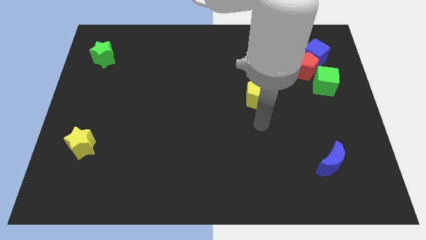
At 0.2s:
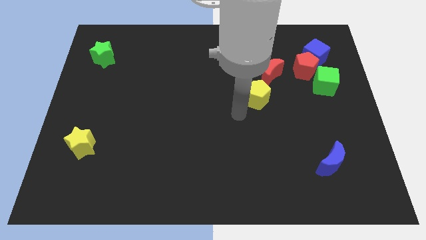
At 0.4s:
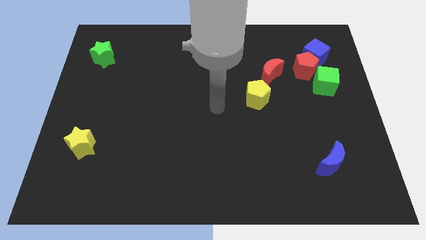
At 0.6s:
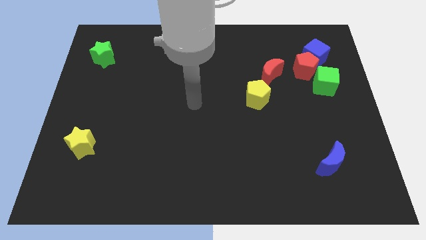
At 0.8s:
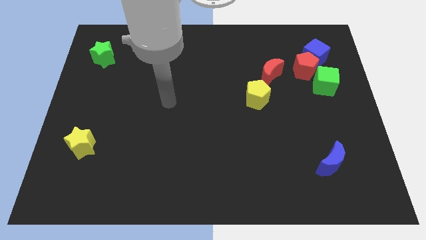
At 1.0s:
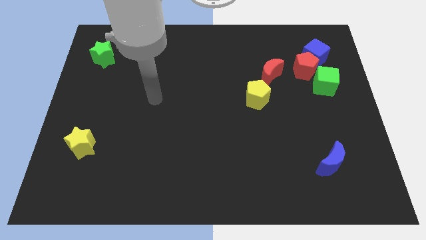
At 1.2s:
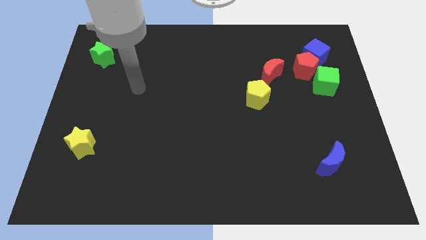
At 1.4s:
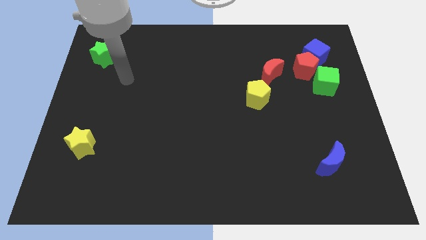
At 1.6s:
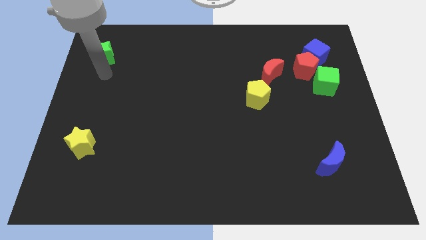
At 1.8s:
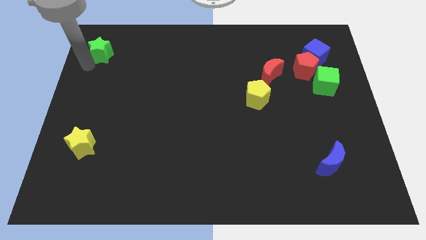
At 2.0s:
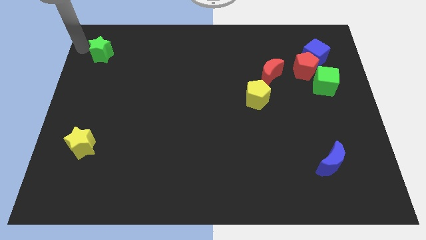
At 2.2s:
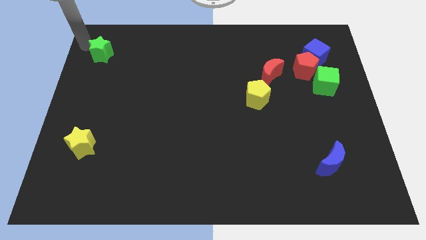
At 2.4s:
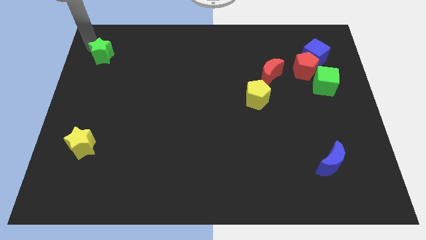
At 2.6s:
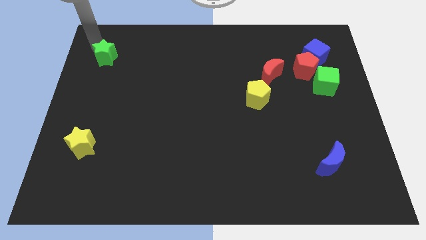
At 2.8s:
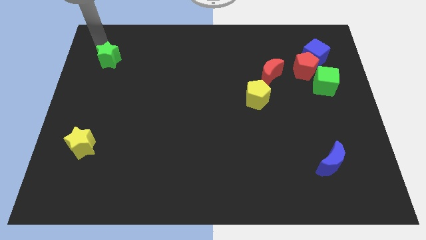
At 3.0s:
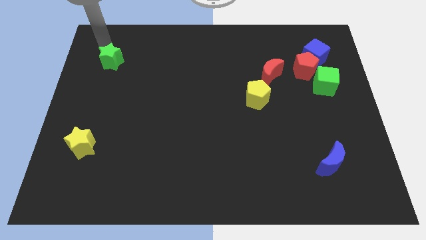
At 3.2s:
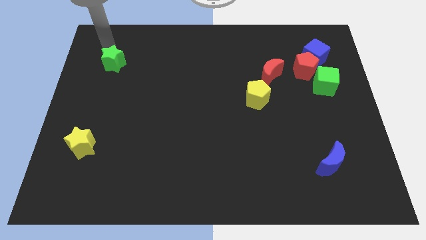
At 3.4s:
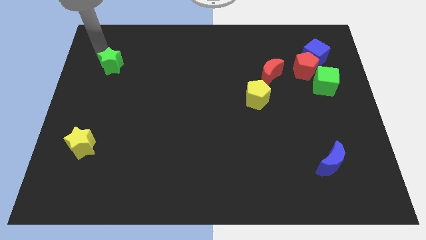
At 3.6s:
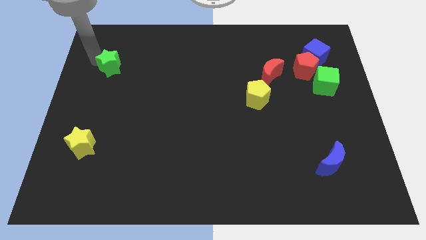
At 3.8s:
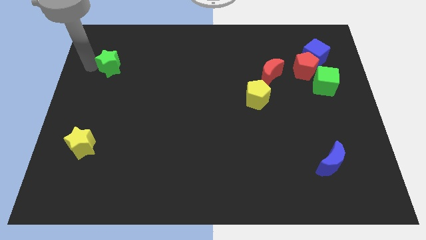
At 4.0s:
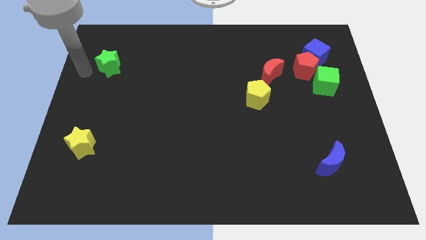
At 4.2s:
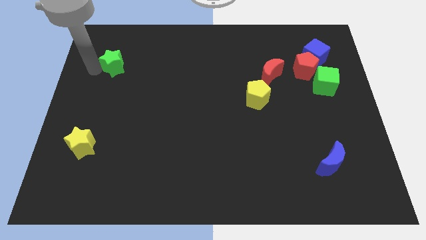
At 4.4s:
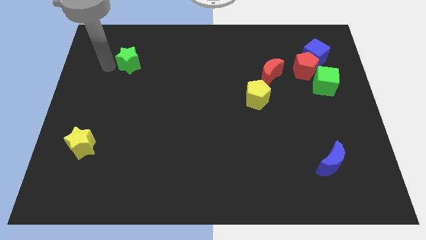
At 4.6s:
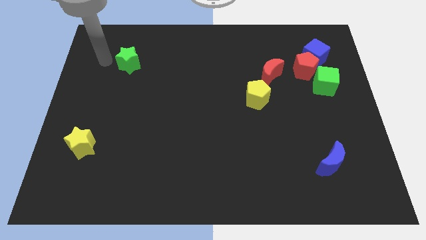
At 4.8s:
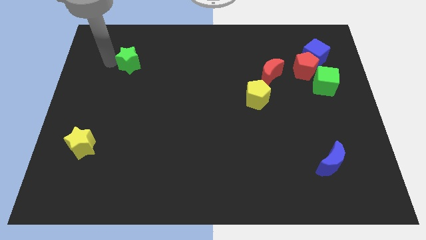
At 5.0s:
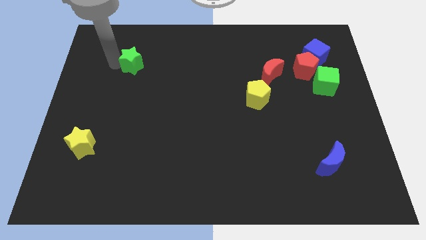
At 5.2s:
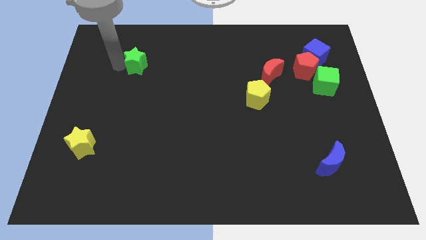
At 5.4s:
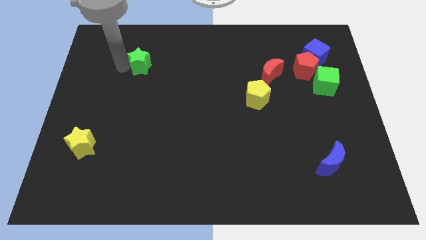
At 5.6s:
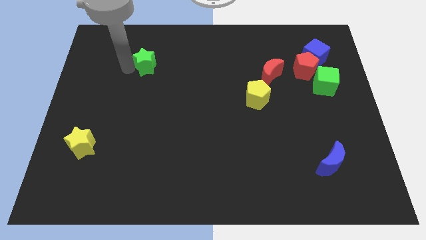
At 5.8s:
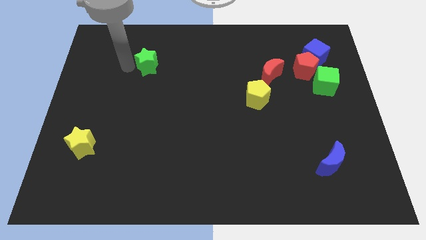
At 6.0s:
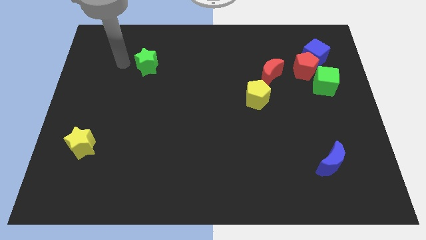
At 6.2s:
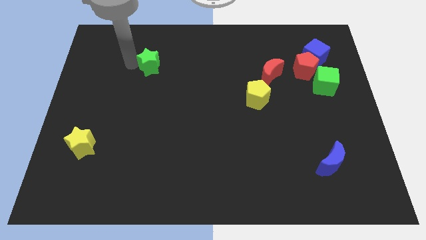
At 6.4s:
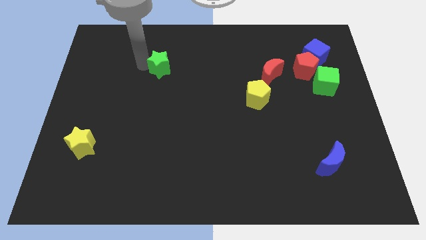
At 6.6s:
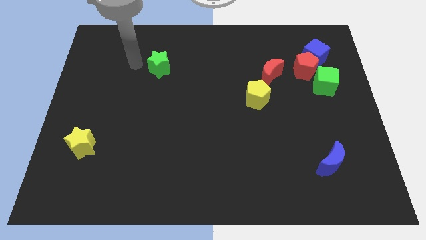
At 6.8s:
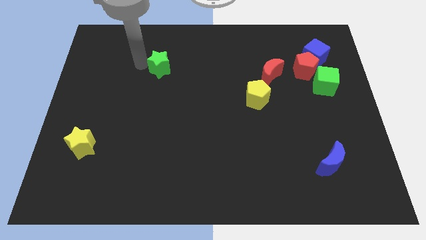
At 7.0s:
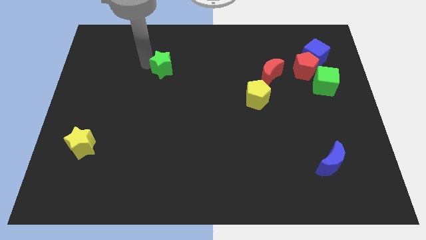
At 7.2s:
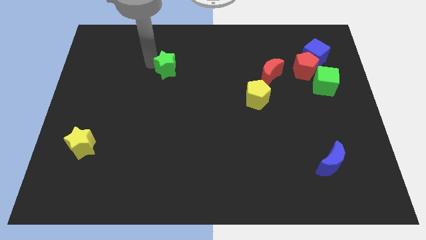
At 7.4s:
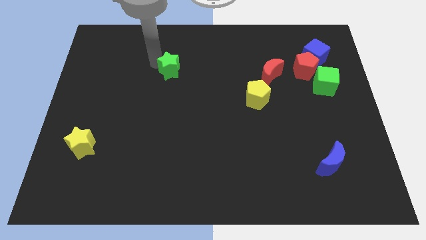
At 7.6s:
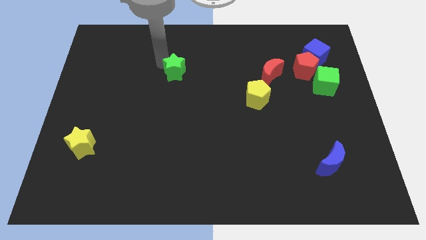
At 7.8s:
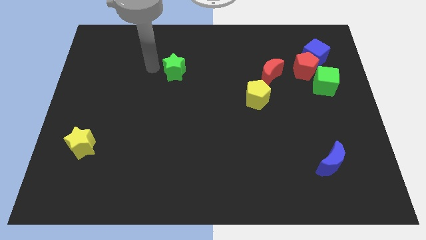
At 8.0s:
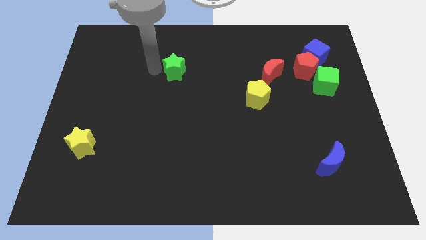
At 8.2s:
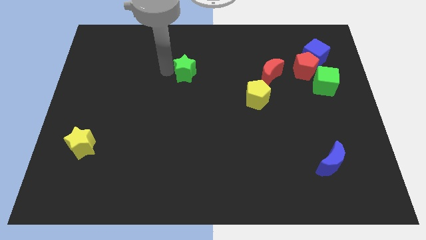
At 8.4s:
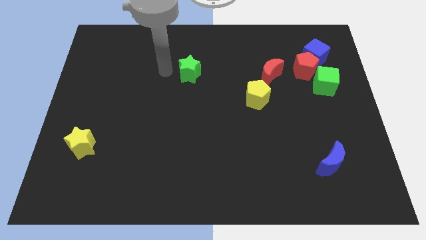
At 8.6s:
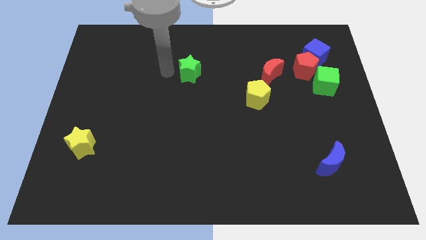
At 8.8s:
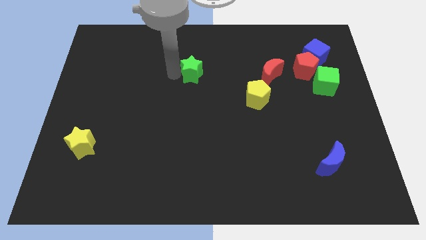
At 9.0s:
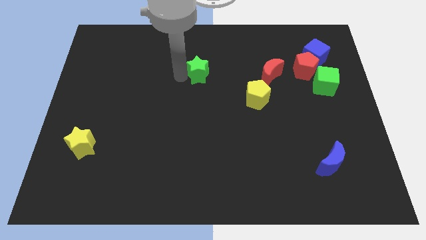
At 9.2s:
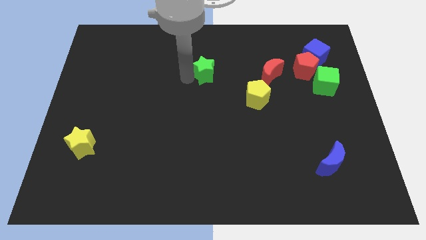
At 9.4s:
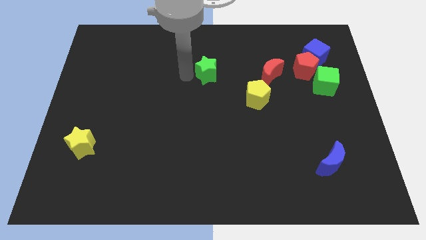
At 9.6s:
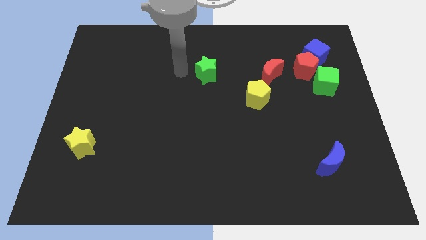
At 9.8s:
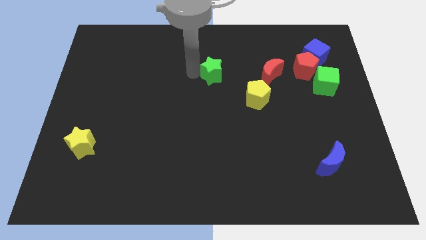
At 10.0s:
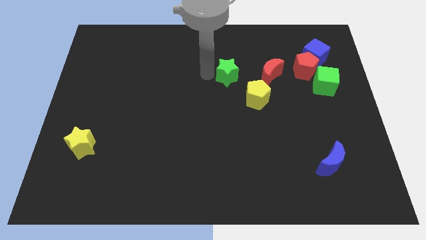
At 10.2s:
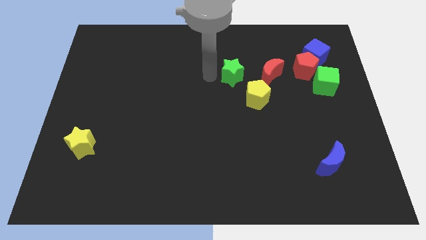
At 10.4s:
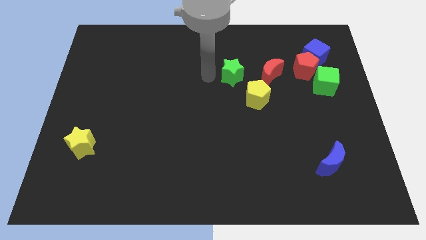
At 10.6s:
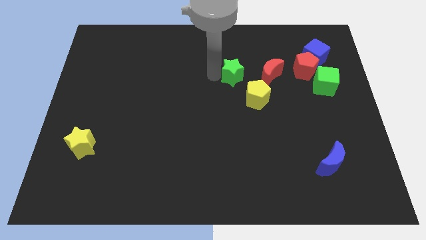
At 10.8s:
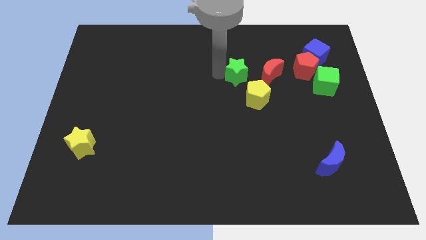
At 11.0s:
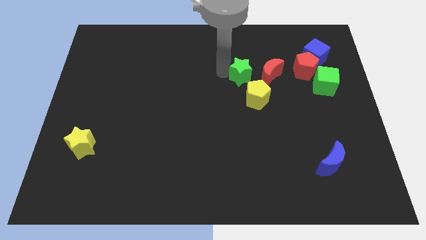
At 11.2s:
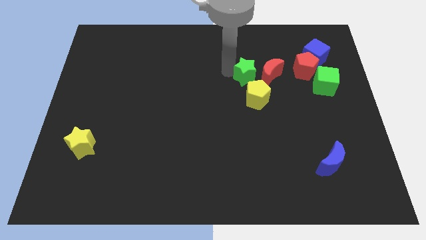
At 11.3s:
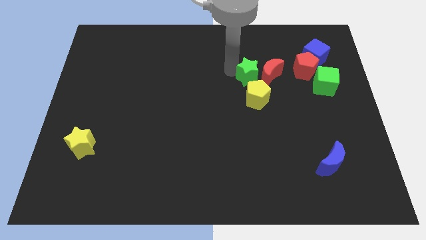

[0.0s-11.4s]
push the green star close to the red moon

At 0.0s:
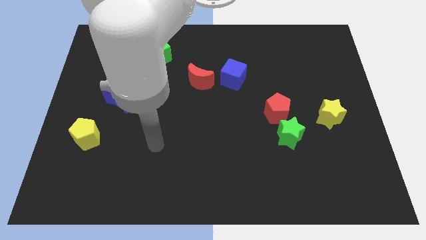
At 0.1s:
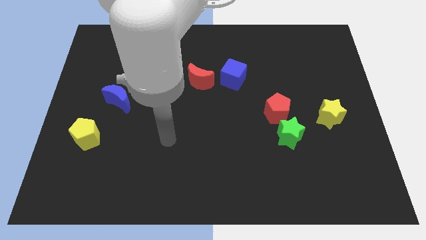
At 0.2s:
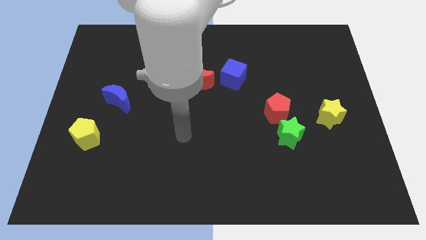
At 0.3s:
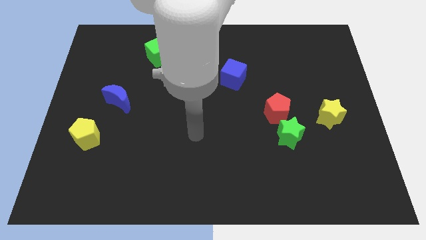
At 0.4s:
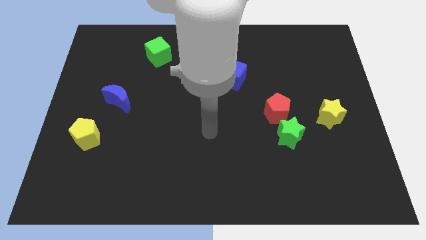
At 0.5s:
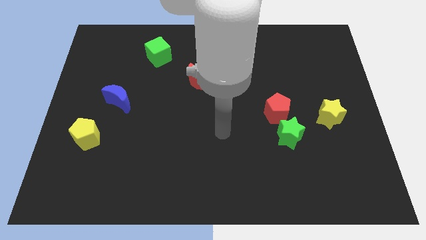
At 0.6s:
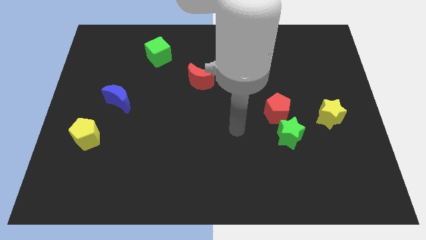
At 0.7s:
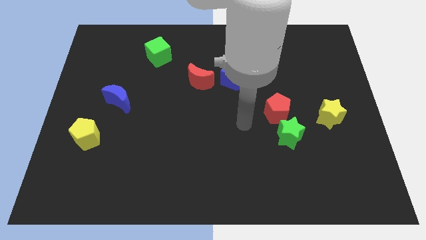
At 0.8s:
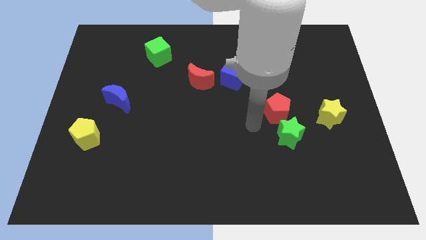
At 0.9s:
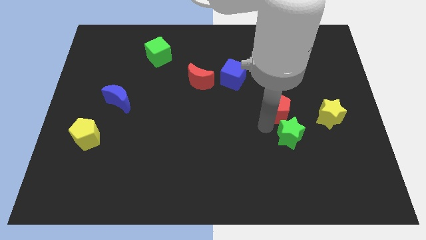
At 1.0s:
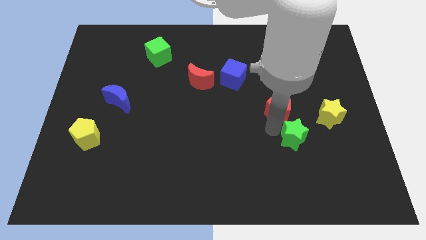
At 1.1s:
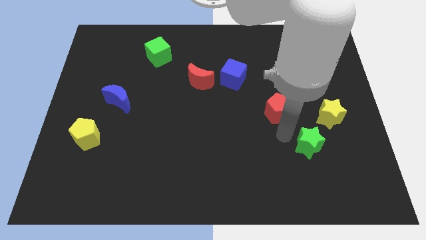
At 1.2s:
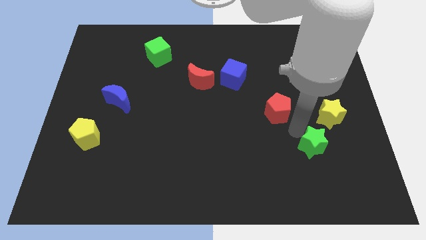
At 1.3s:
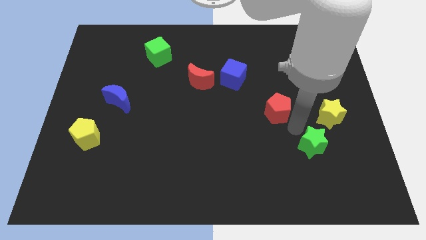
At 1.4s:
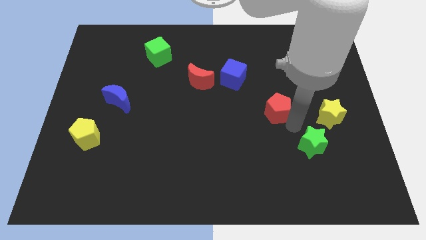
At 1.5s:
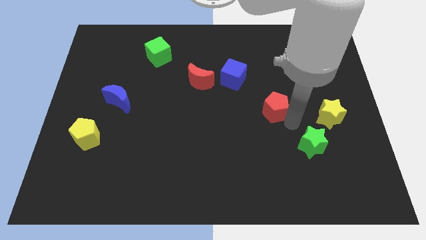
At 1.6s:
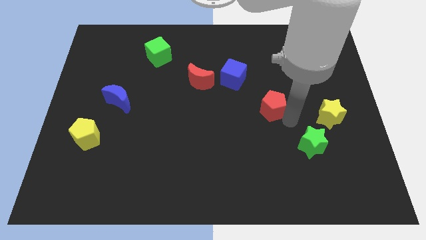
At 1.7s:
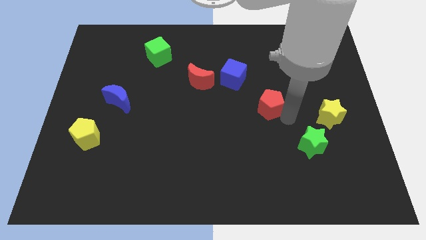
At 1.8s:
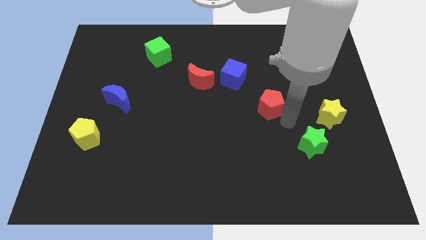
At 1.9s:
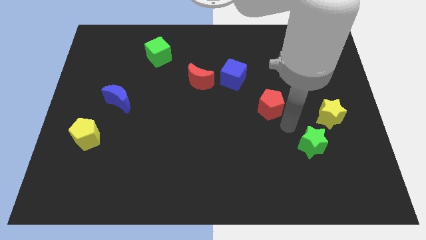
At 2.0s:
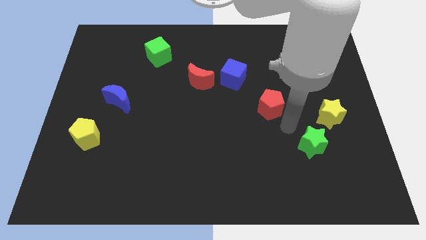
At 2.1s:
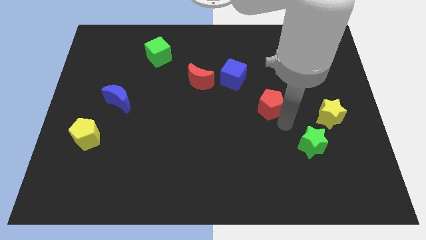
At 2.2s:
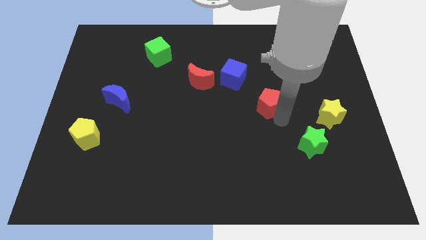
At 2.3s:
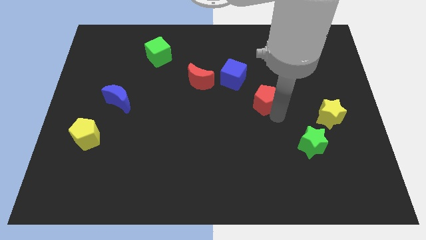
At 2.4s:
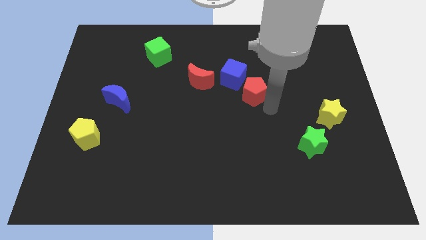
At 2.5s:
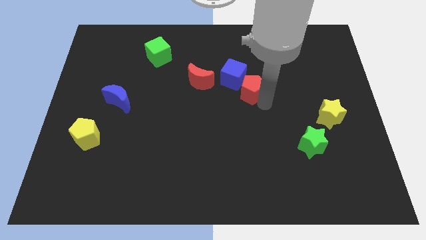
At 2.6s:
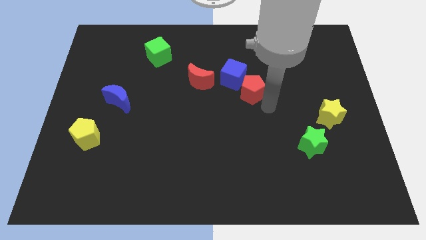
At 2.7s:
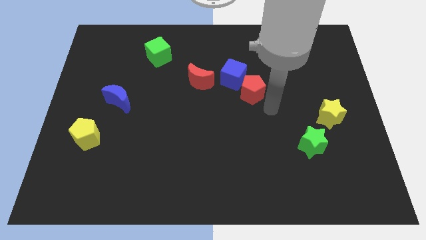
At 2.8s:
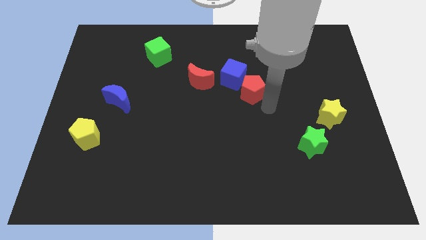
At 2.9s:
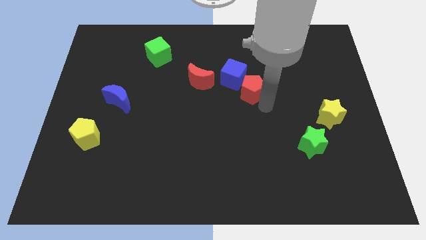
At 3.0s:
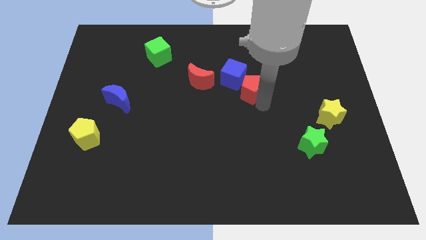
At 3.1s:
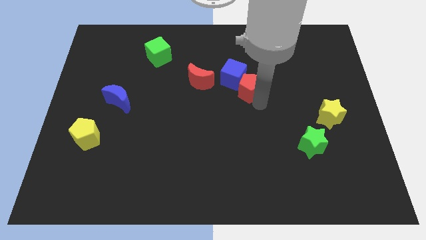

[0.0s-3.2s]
put the red pentagon towards the blue cube
